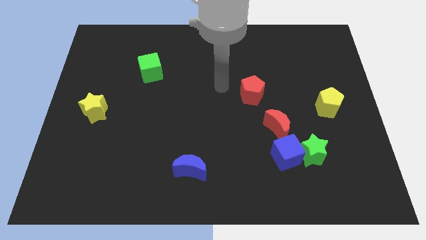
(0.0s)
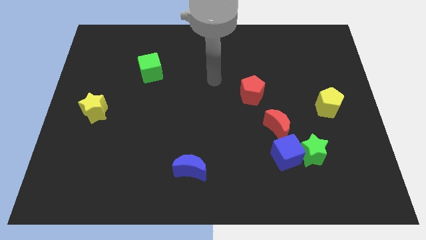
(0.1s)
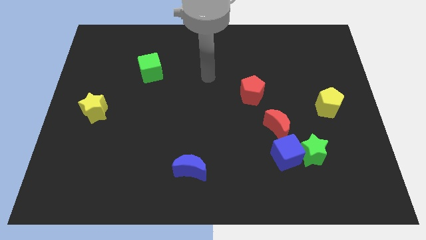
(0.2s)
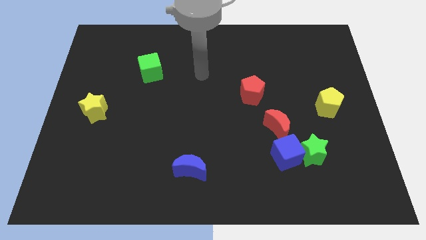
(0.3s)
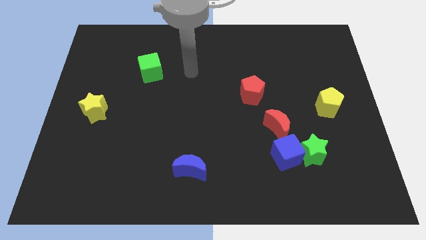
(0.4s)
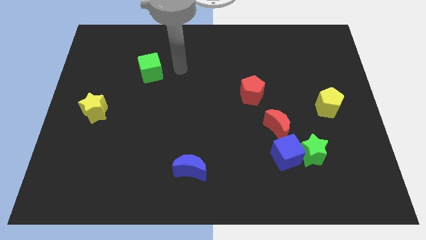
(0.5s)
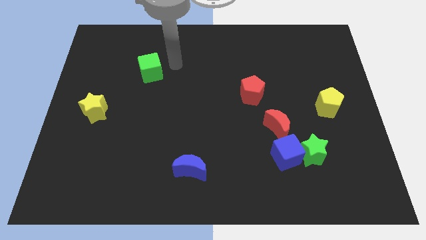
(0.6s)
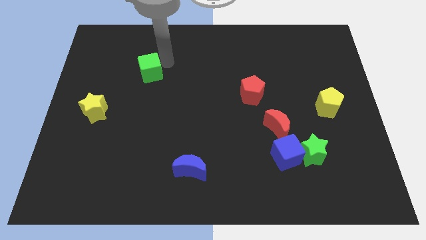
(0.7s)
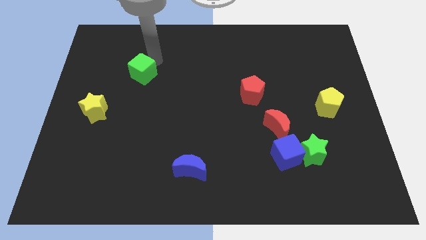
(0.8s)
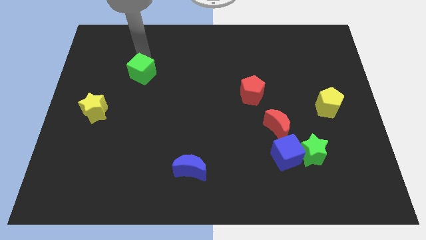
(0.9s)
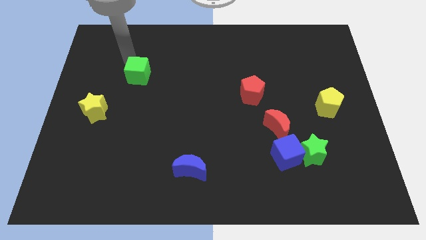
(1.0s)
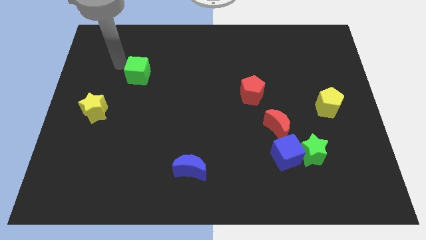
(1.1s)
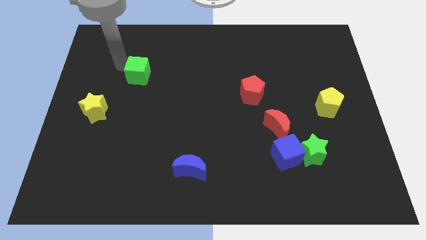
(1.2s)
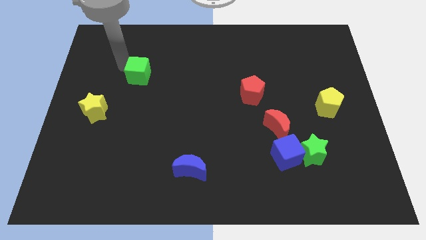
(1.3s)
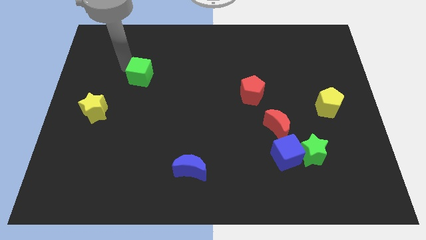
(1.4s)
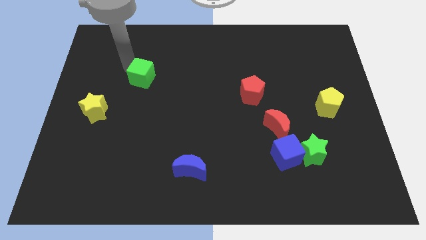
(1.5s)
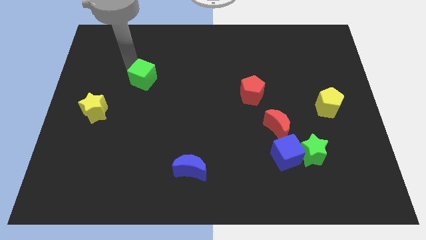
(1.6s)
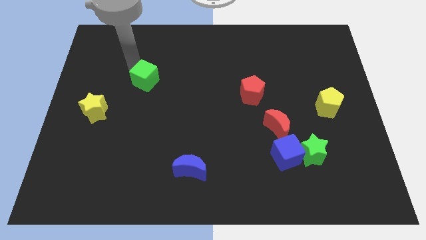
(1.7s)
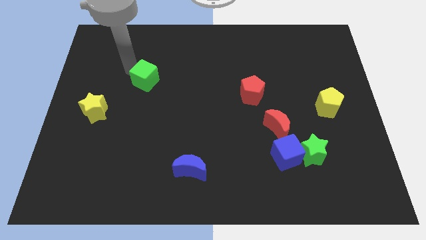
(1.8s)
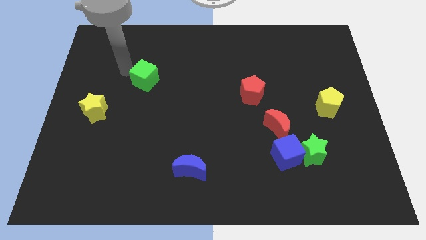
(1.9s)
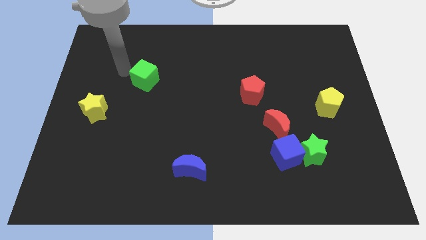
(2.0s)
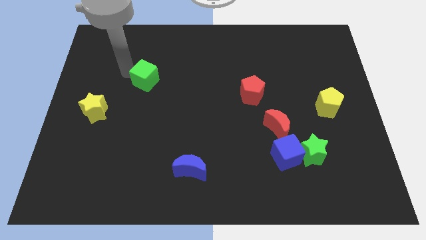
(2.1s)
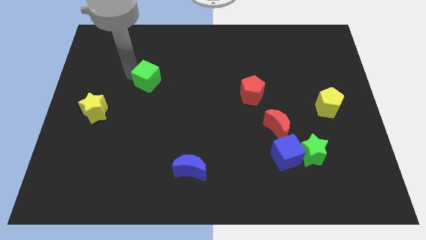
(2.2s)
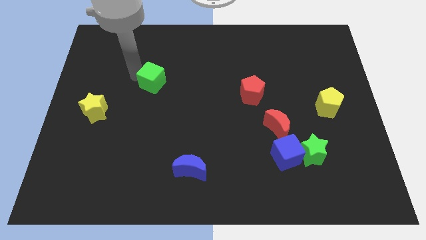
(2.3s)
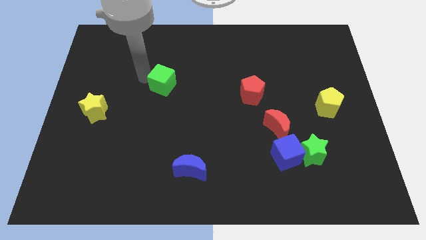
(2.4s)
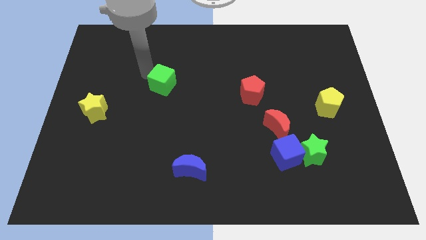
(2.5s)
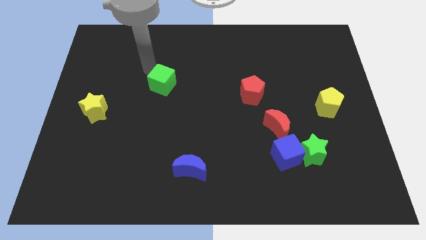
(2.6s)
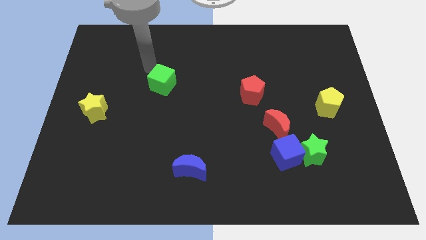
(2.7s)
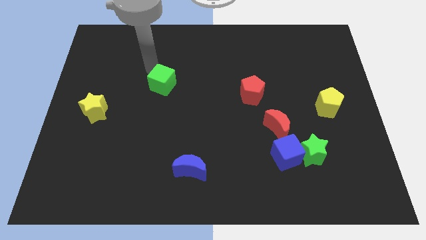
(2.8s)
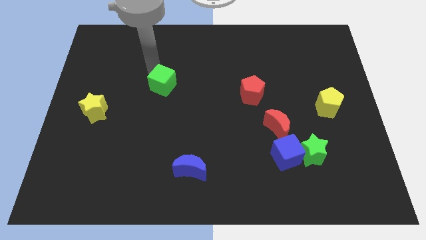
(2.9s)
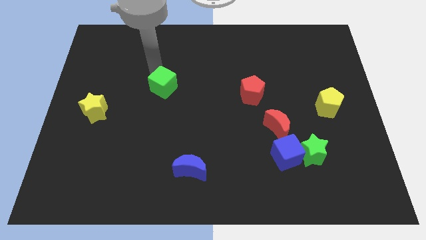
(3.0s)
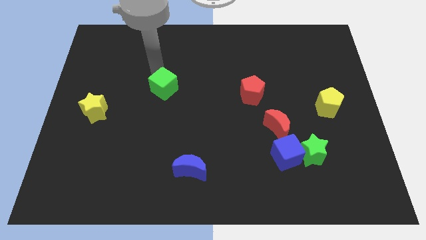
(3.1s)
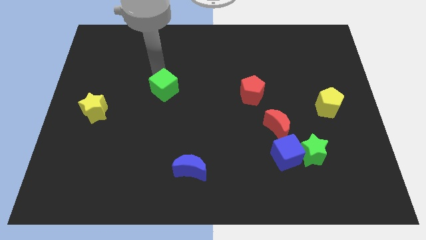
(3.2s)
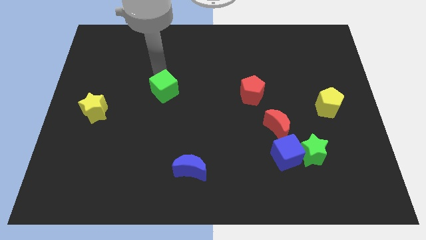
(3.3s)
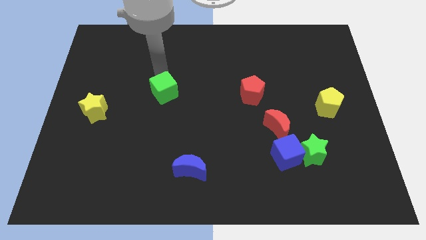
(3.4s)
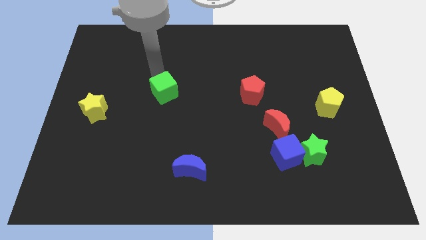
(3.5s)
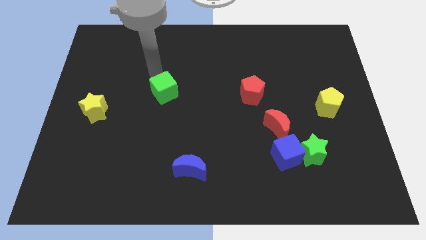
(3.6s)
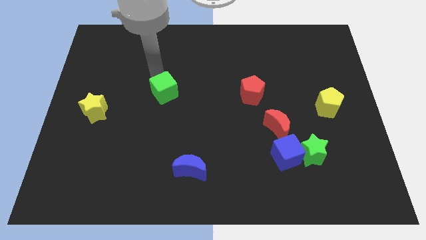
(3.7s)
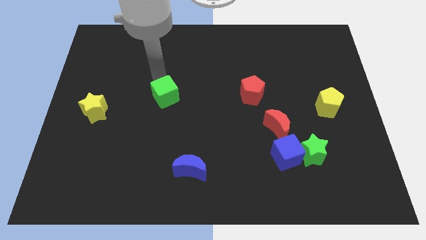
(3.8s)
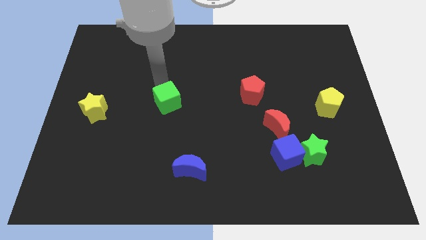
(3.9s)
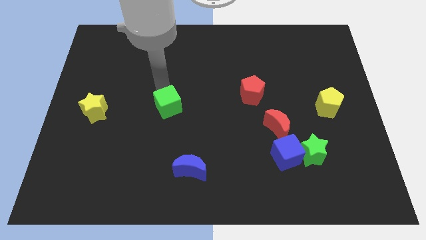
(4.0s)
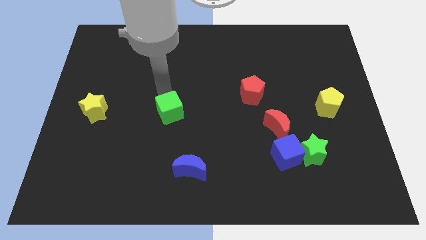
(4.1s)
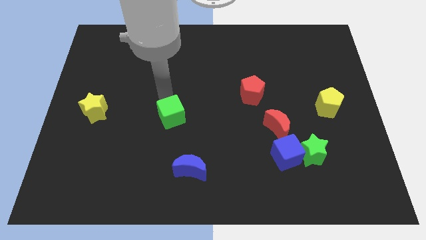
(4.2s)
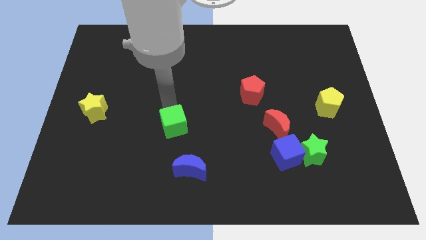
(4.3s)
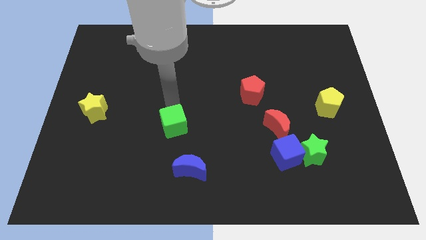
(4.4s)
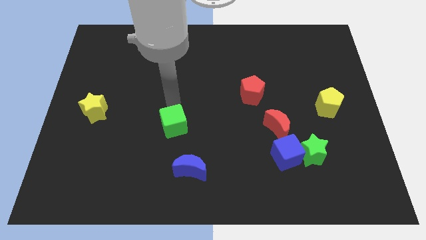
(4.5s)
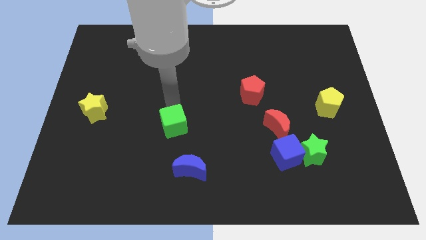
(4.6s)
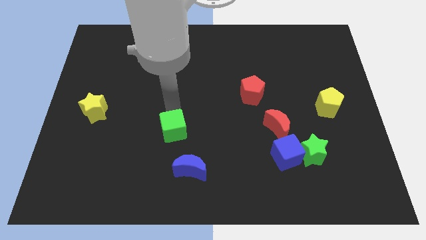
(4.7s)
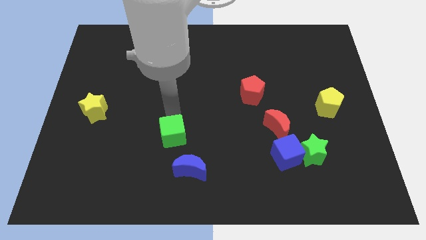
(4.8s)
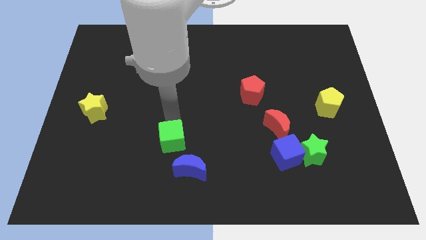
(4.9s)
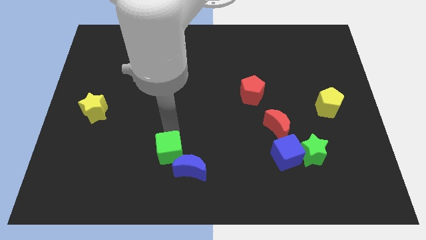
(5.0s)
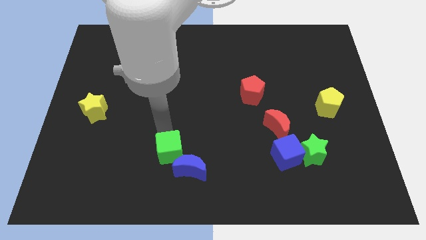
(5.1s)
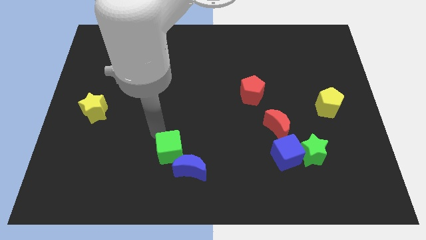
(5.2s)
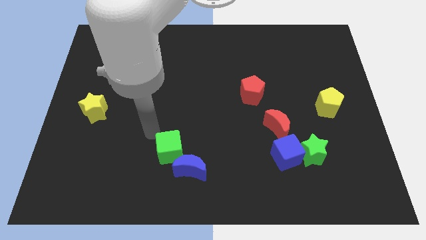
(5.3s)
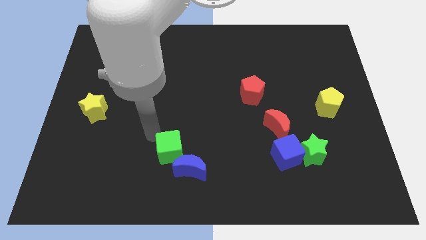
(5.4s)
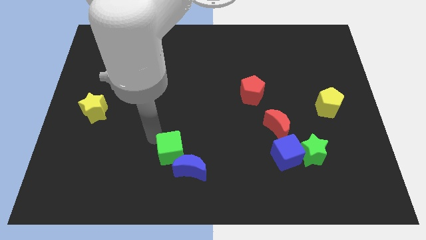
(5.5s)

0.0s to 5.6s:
slide the green cube to the blue moon

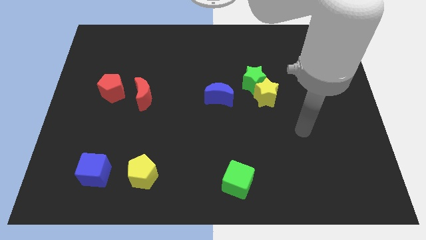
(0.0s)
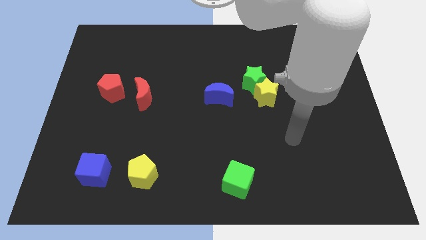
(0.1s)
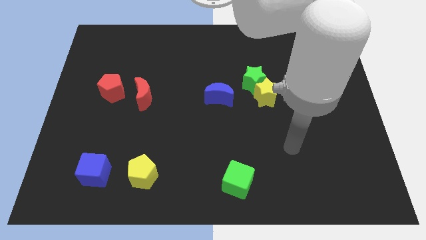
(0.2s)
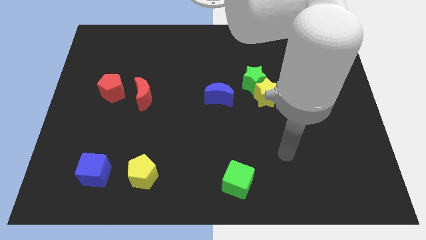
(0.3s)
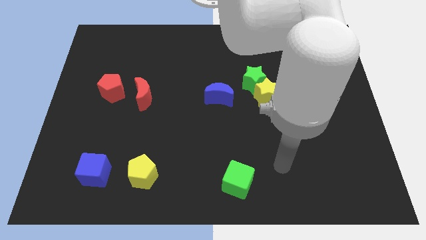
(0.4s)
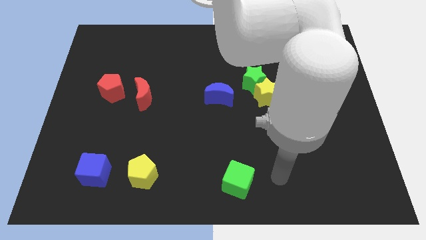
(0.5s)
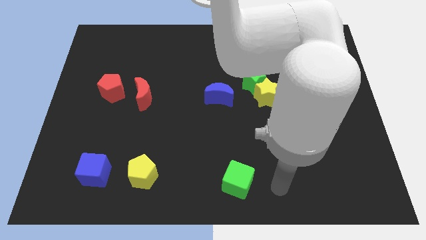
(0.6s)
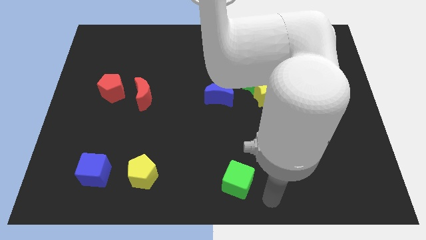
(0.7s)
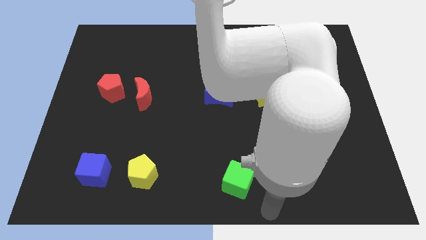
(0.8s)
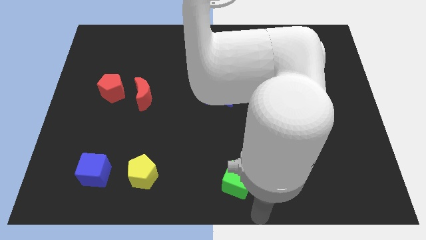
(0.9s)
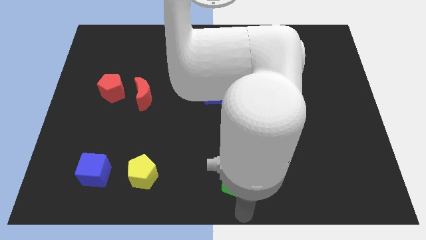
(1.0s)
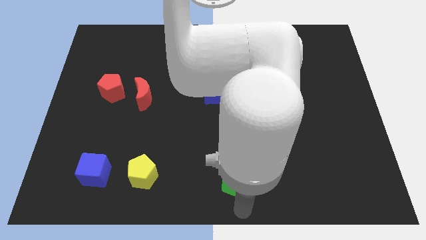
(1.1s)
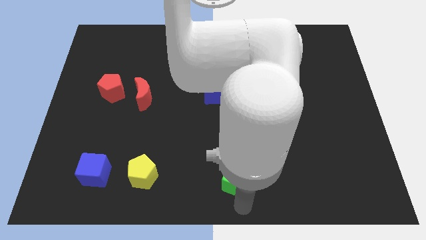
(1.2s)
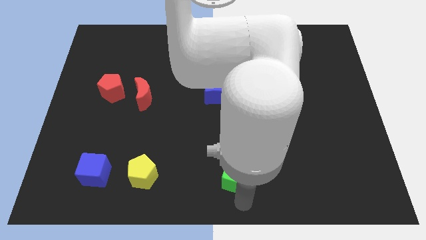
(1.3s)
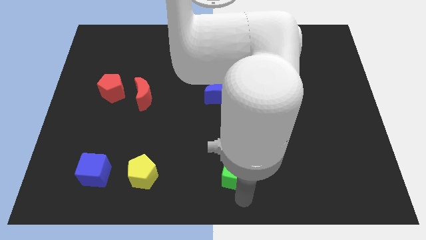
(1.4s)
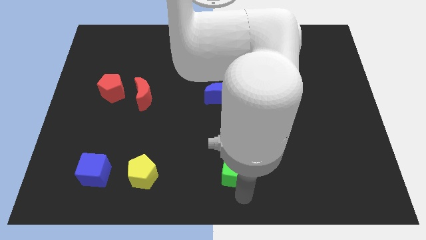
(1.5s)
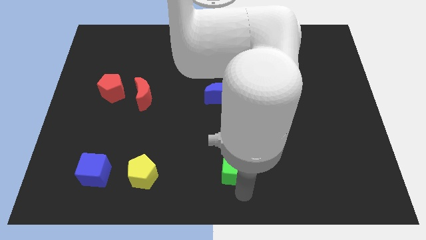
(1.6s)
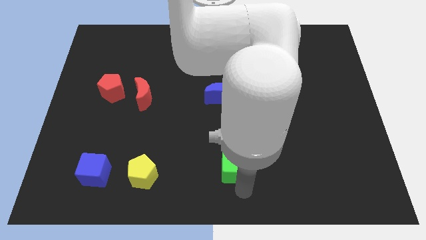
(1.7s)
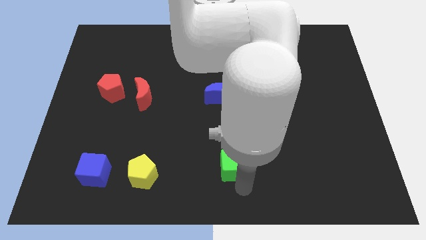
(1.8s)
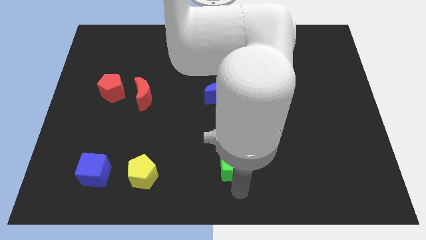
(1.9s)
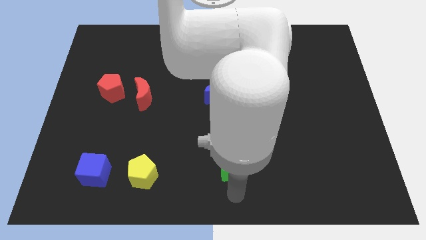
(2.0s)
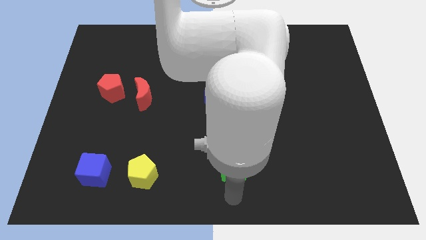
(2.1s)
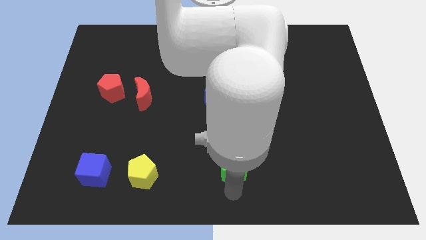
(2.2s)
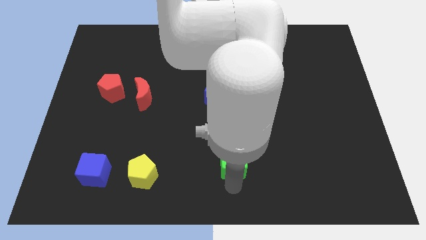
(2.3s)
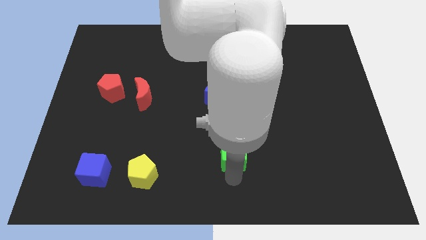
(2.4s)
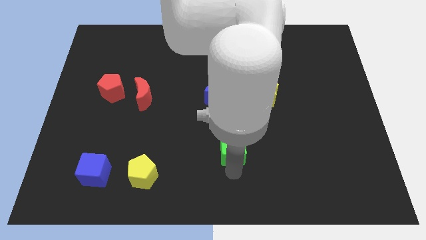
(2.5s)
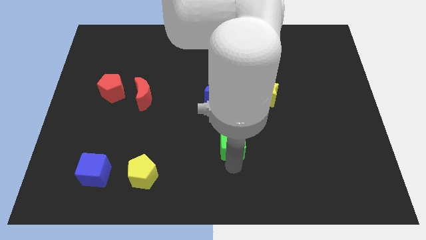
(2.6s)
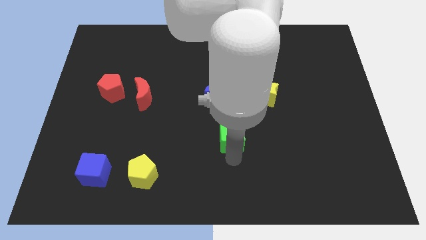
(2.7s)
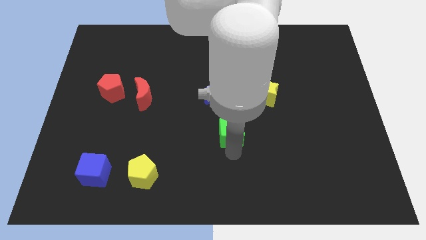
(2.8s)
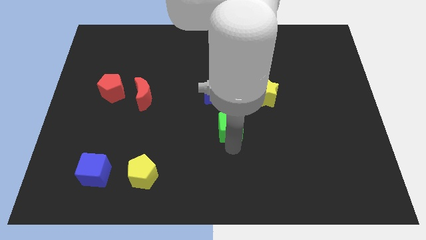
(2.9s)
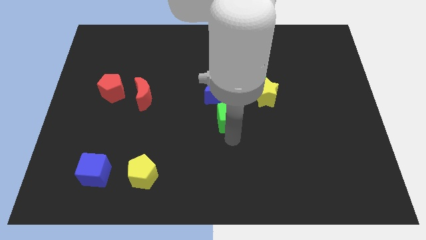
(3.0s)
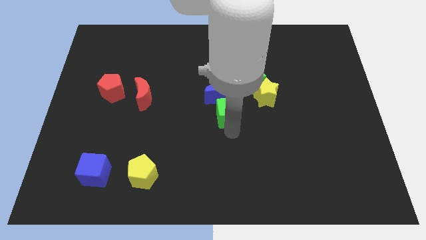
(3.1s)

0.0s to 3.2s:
move the green cube towards the blue moon
